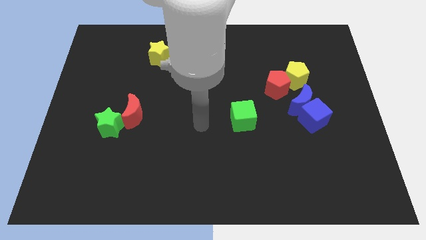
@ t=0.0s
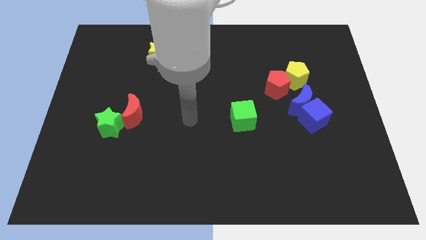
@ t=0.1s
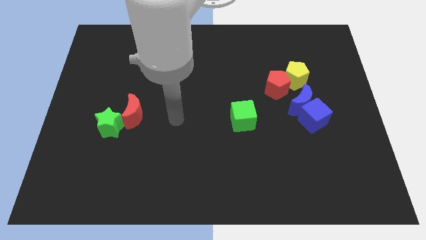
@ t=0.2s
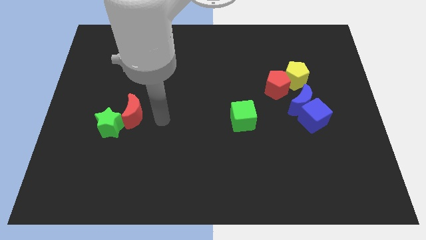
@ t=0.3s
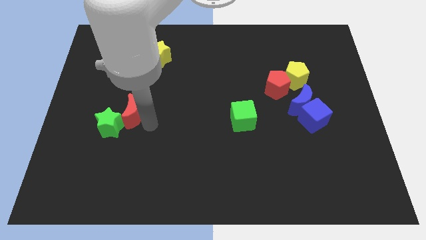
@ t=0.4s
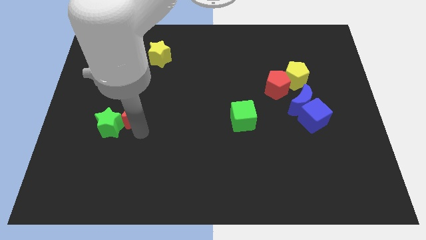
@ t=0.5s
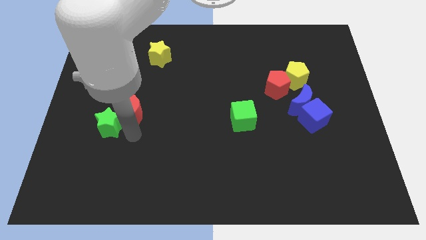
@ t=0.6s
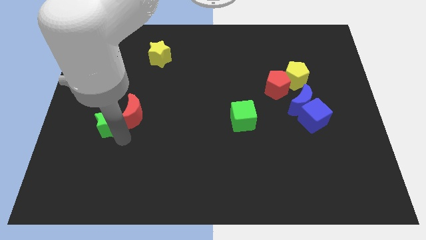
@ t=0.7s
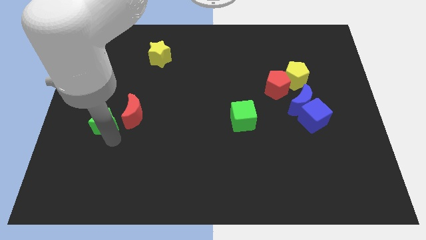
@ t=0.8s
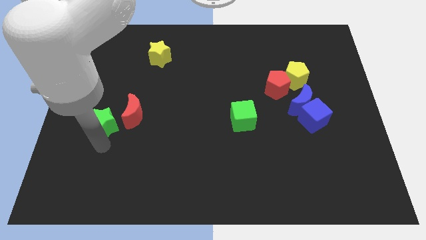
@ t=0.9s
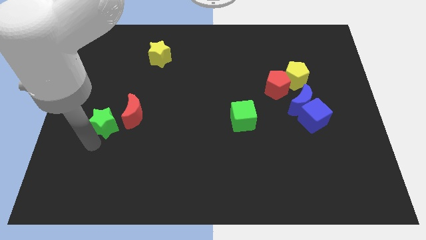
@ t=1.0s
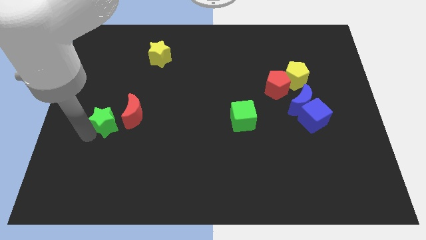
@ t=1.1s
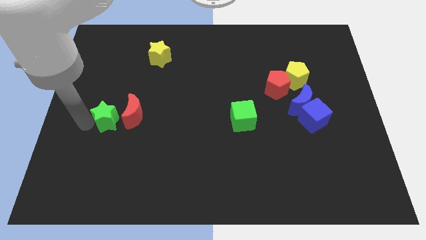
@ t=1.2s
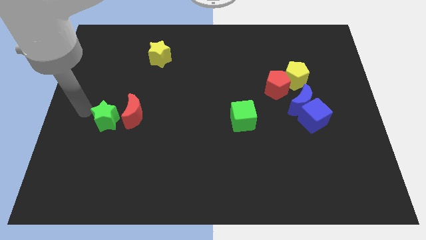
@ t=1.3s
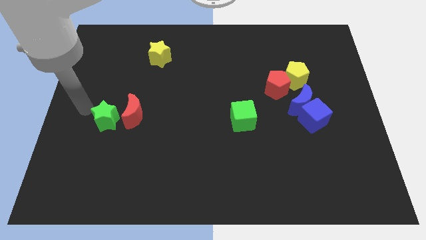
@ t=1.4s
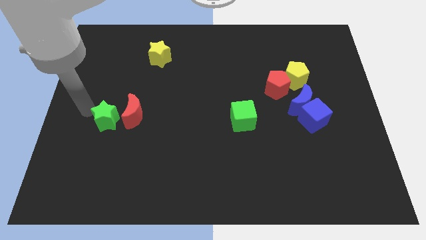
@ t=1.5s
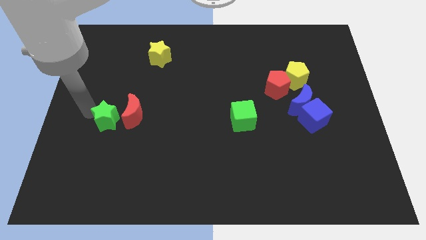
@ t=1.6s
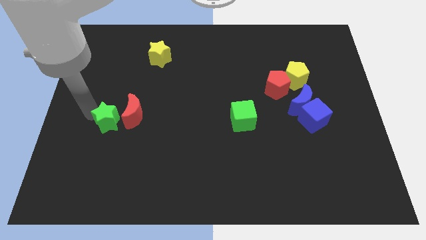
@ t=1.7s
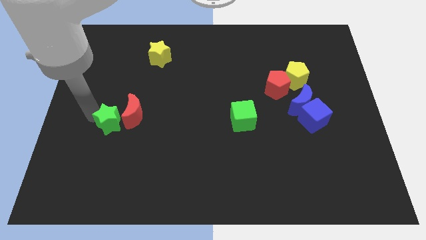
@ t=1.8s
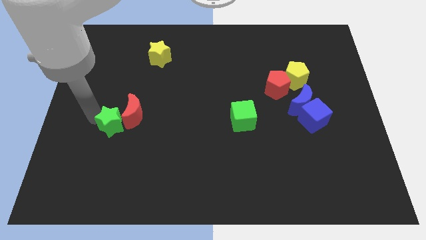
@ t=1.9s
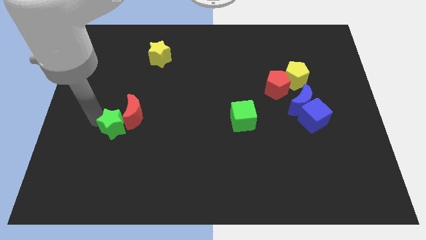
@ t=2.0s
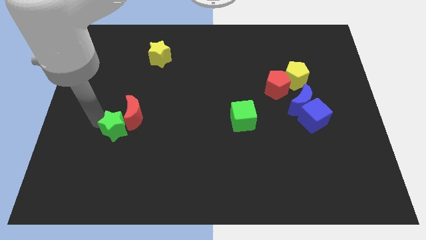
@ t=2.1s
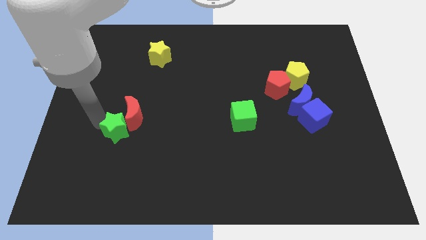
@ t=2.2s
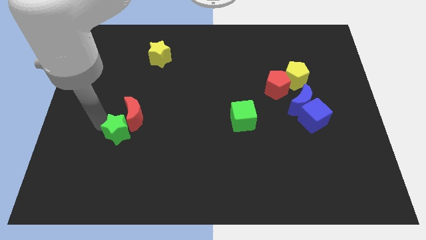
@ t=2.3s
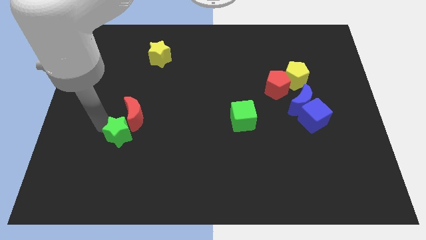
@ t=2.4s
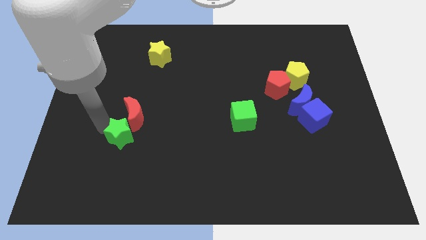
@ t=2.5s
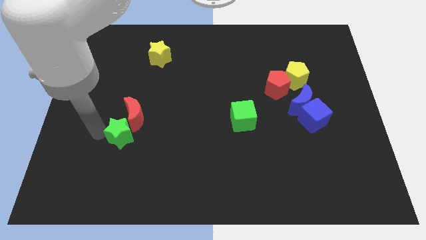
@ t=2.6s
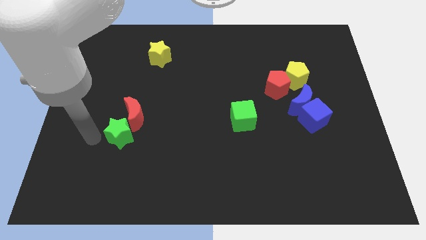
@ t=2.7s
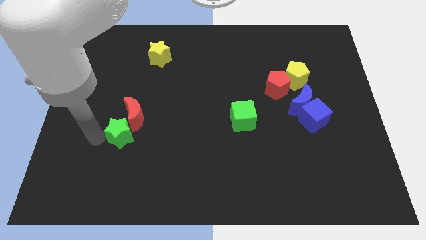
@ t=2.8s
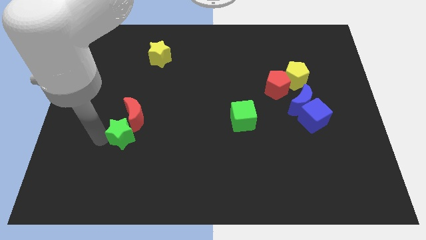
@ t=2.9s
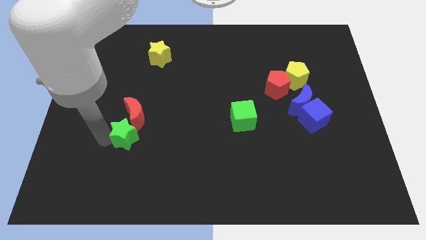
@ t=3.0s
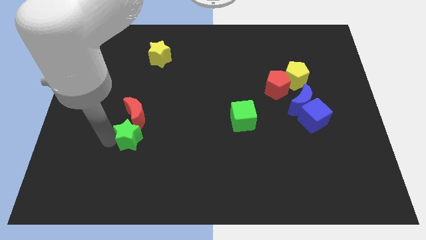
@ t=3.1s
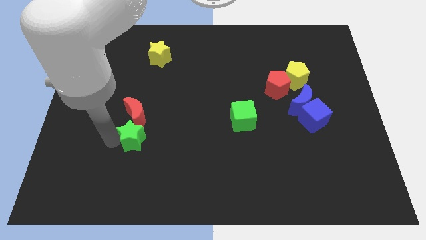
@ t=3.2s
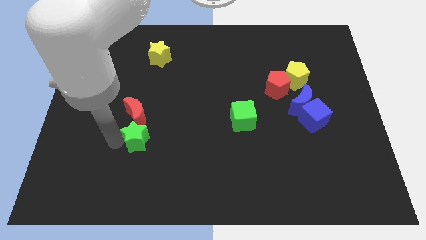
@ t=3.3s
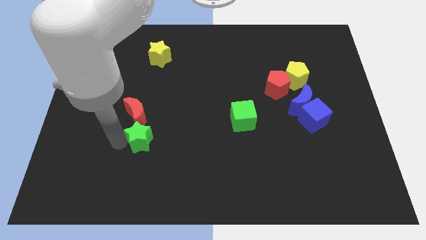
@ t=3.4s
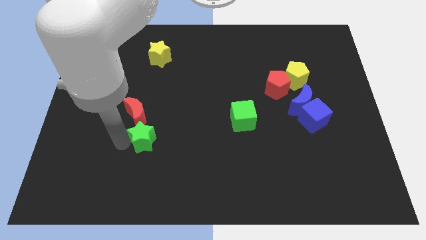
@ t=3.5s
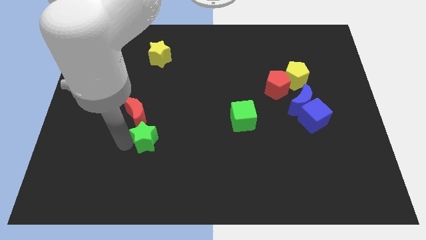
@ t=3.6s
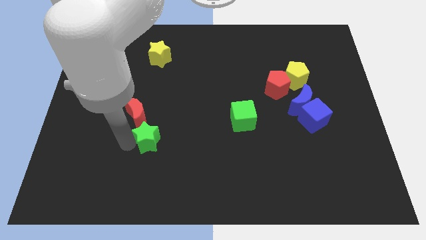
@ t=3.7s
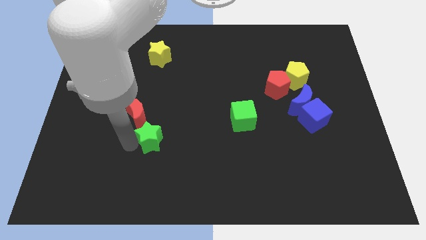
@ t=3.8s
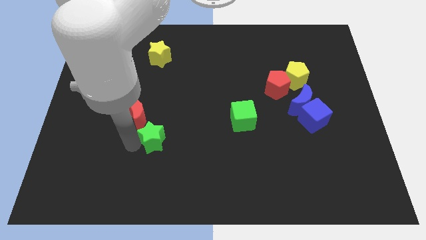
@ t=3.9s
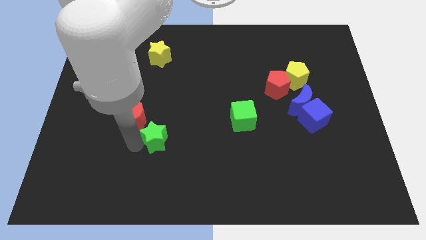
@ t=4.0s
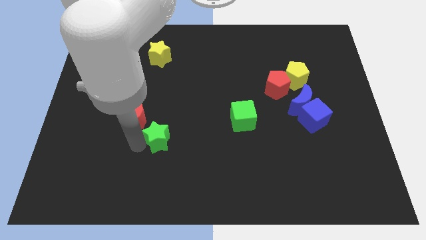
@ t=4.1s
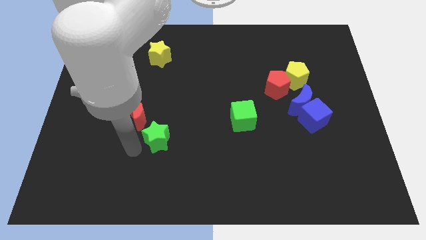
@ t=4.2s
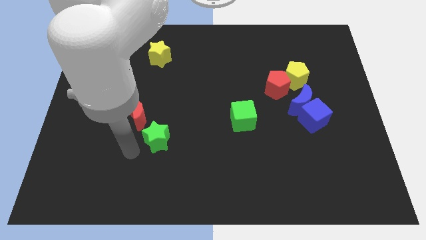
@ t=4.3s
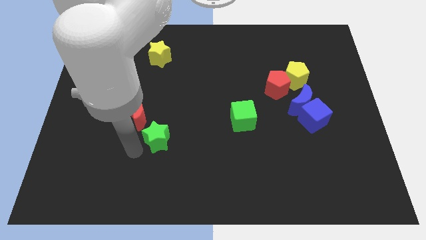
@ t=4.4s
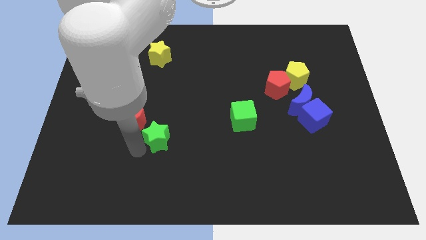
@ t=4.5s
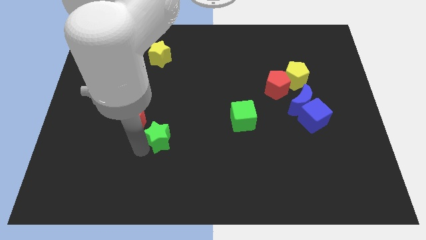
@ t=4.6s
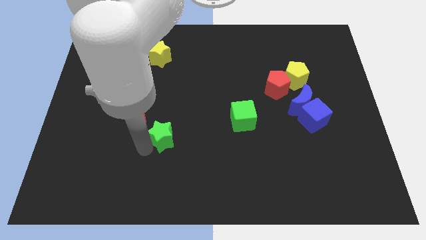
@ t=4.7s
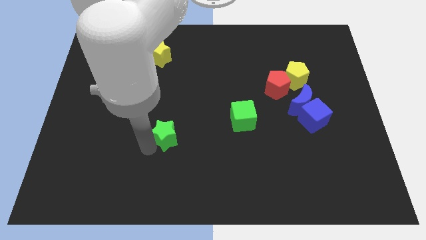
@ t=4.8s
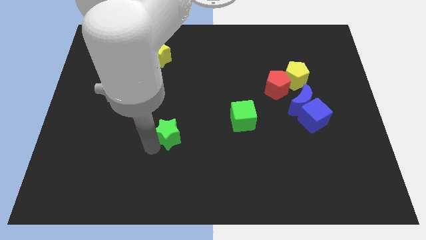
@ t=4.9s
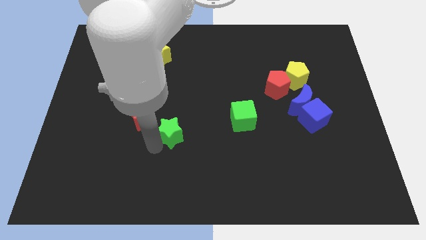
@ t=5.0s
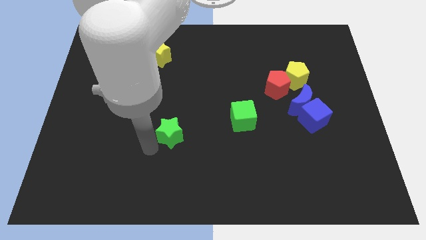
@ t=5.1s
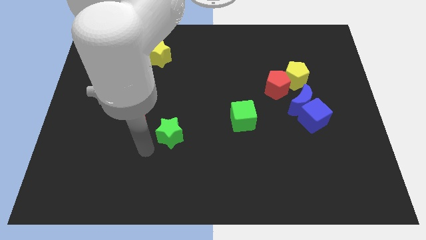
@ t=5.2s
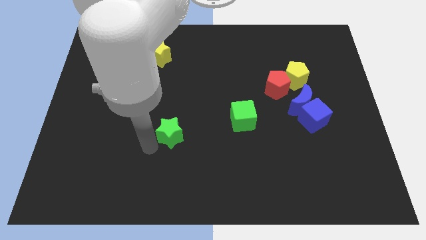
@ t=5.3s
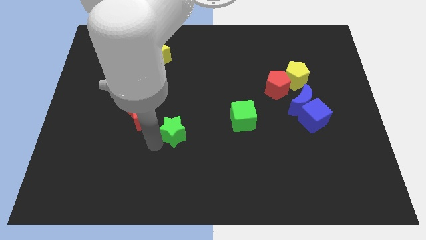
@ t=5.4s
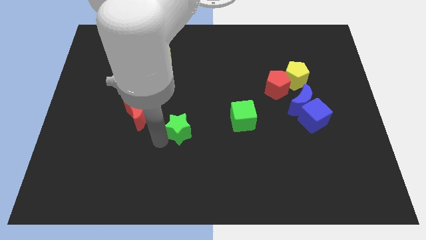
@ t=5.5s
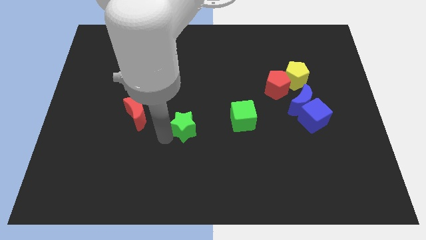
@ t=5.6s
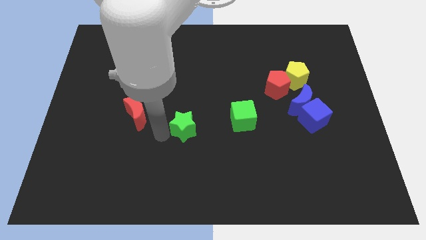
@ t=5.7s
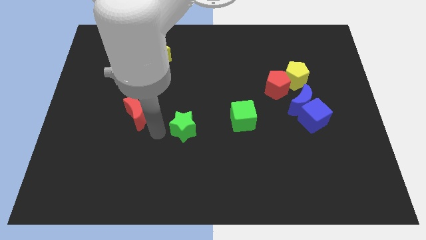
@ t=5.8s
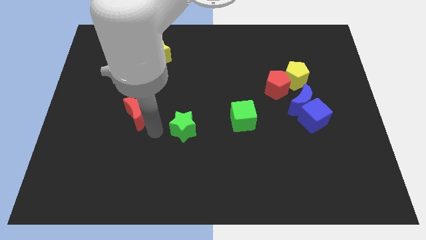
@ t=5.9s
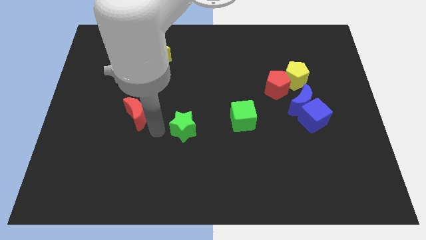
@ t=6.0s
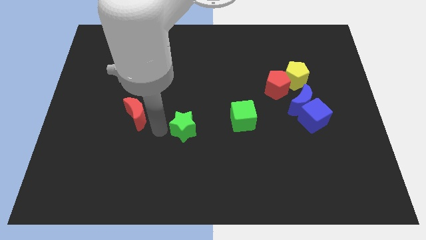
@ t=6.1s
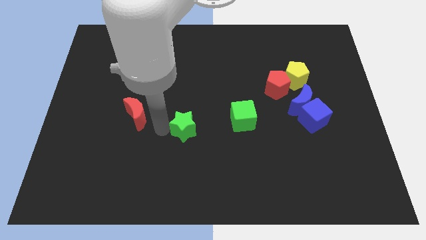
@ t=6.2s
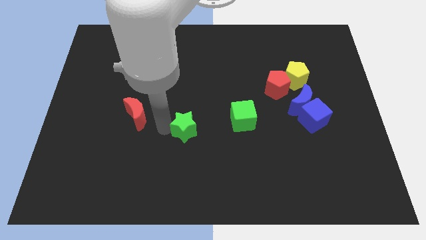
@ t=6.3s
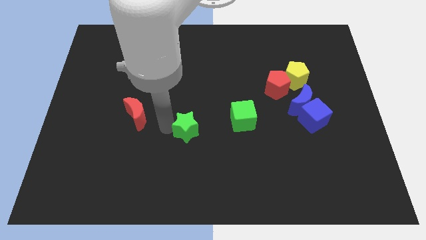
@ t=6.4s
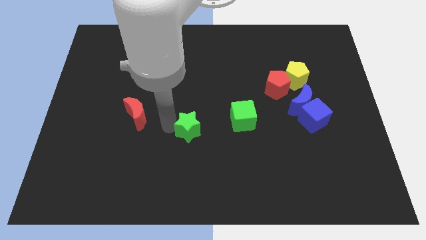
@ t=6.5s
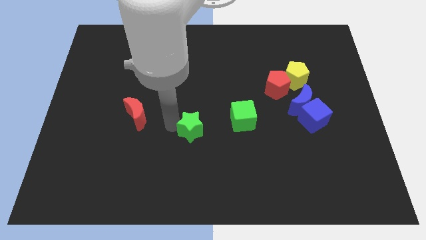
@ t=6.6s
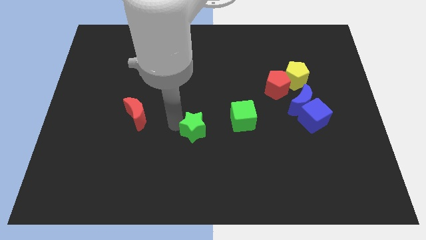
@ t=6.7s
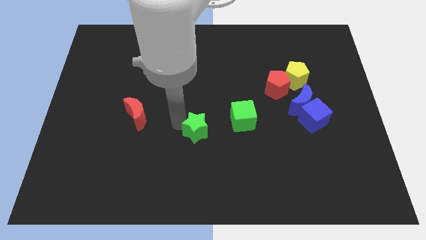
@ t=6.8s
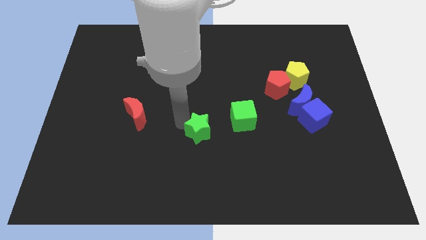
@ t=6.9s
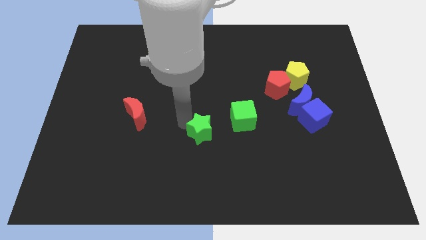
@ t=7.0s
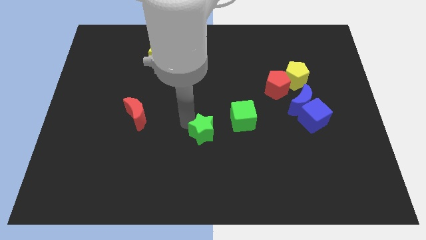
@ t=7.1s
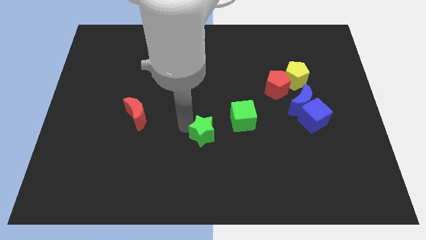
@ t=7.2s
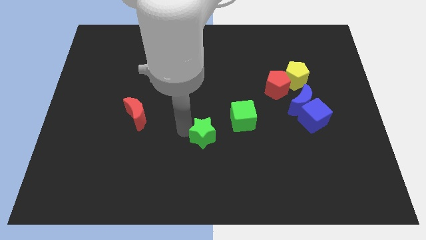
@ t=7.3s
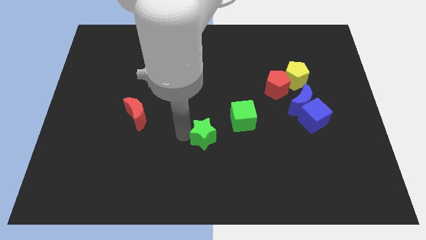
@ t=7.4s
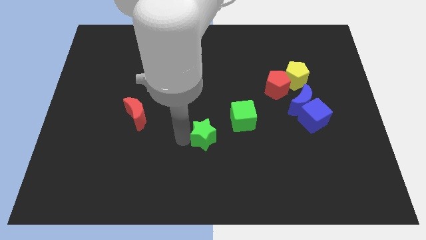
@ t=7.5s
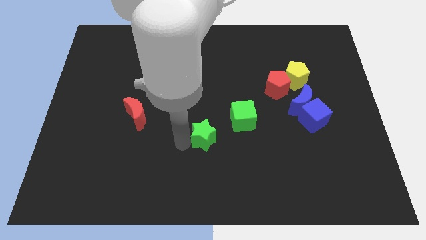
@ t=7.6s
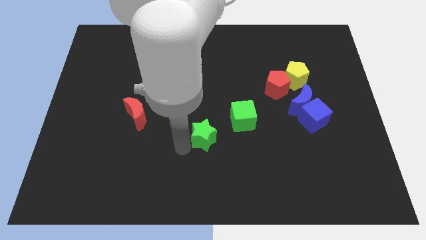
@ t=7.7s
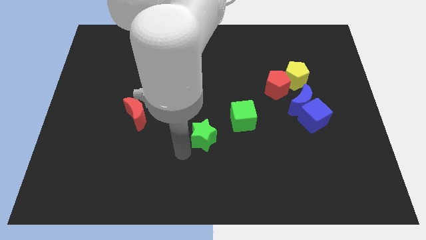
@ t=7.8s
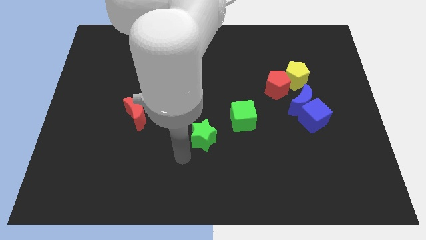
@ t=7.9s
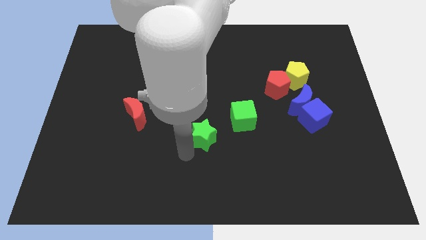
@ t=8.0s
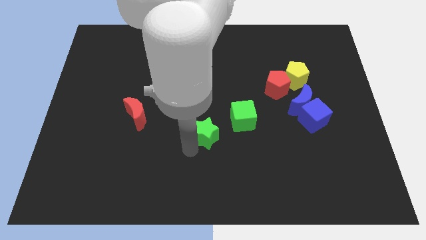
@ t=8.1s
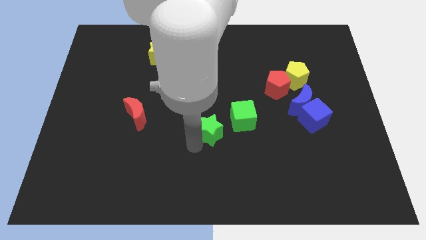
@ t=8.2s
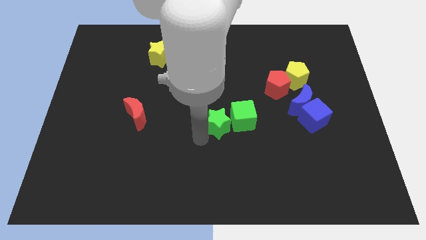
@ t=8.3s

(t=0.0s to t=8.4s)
put the green star close to the green cube
